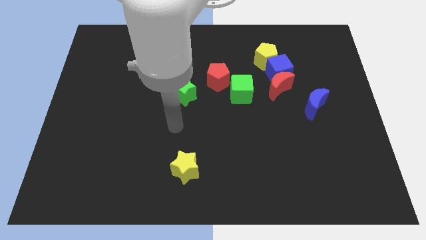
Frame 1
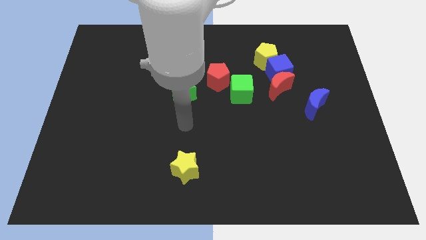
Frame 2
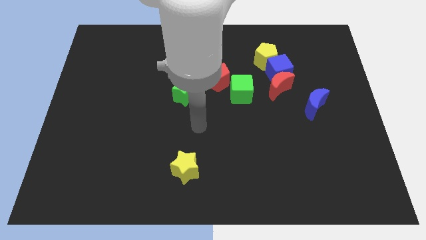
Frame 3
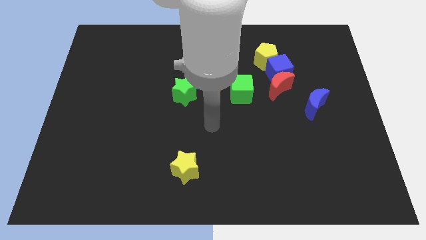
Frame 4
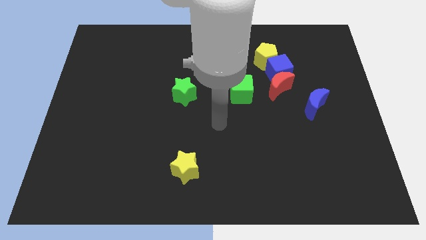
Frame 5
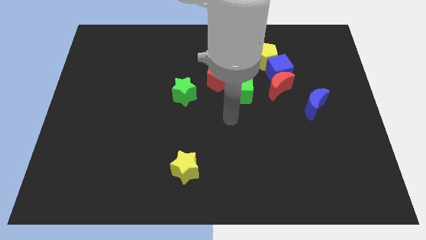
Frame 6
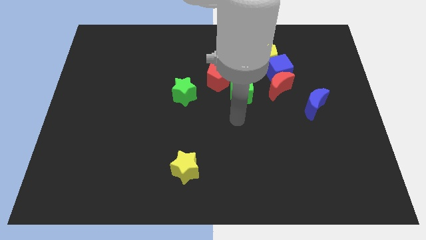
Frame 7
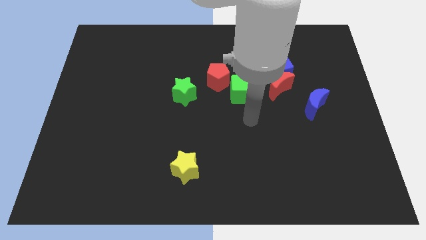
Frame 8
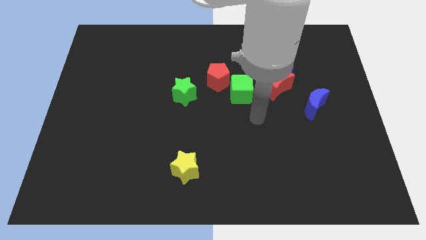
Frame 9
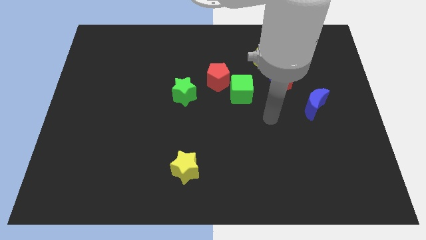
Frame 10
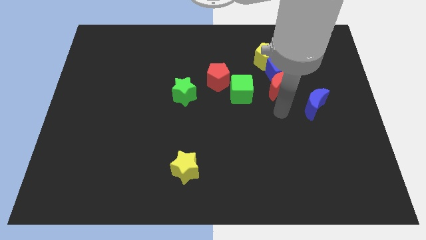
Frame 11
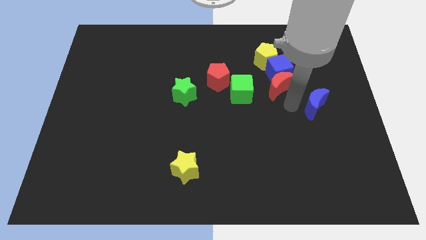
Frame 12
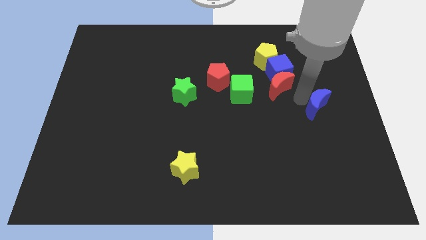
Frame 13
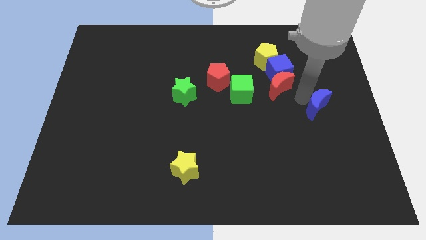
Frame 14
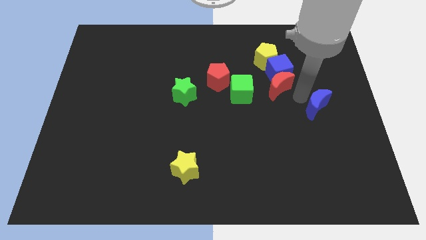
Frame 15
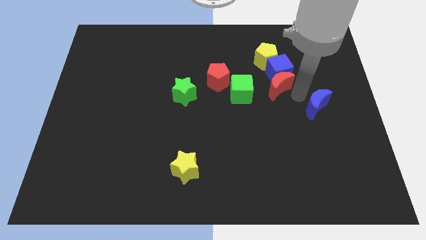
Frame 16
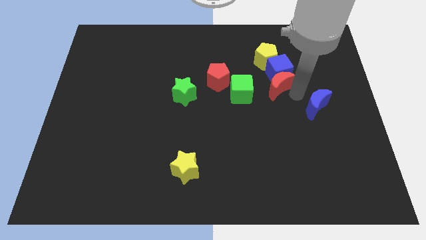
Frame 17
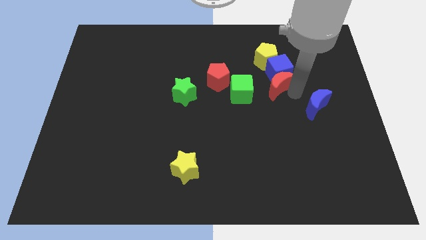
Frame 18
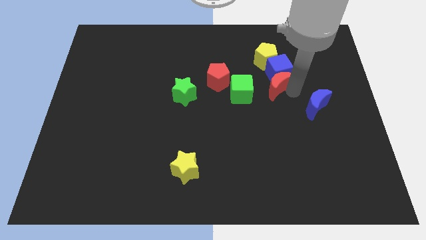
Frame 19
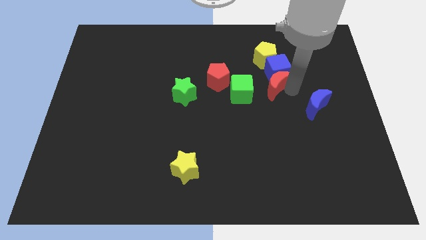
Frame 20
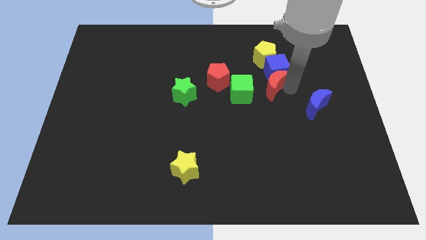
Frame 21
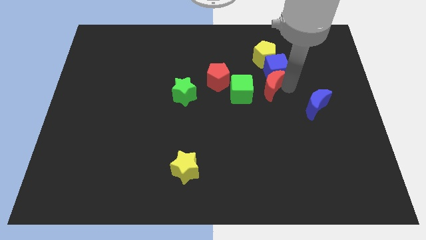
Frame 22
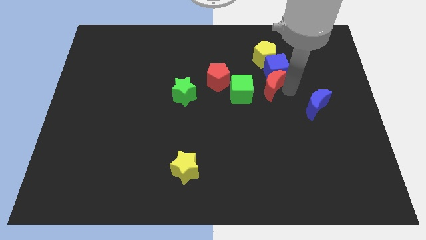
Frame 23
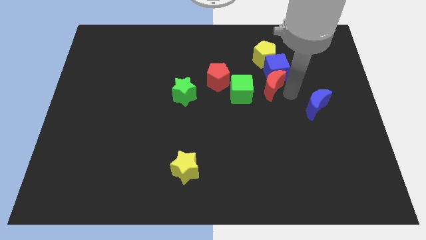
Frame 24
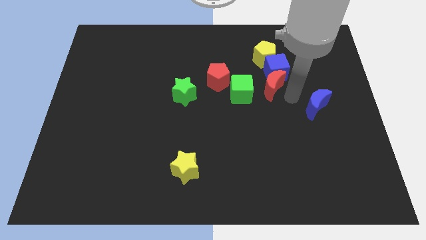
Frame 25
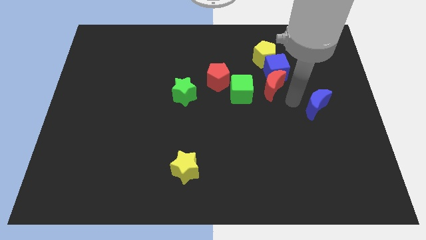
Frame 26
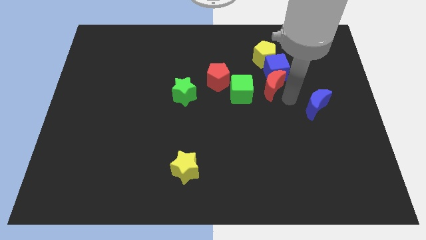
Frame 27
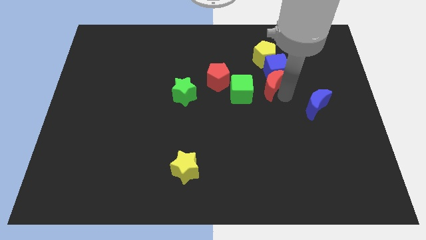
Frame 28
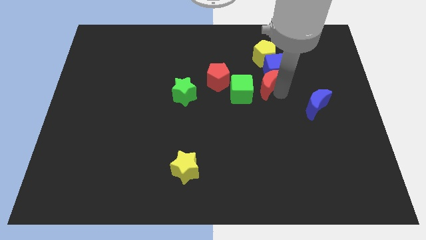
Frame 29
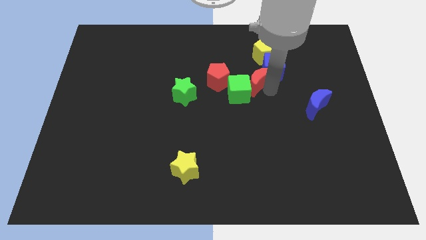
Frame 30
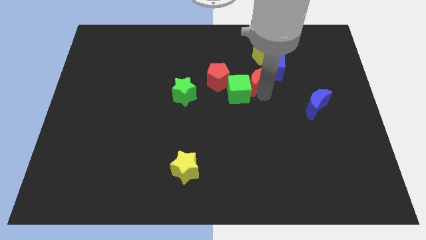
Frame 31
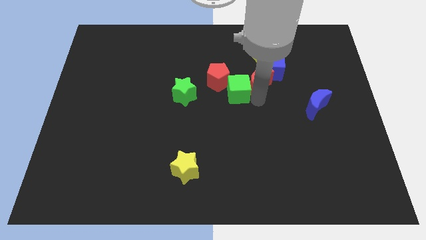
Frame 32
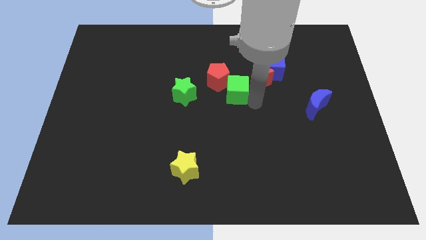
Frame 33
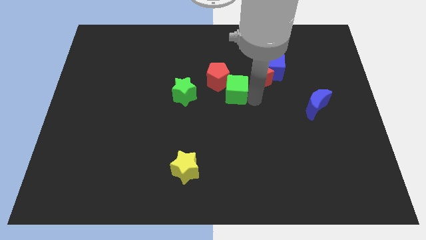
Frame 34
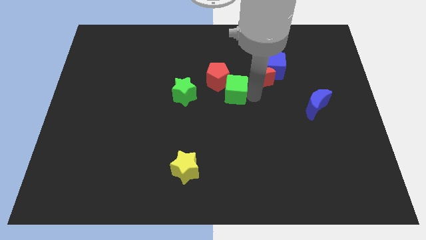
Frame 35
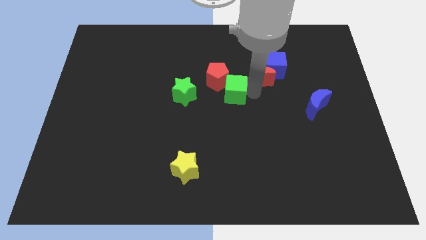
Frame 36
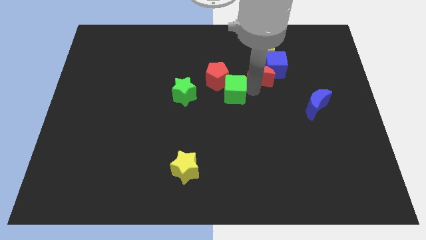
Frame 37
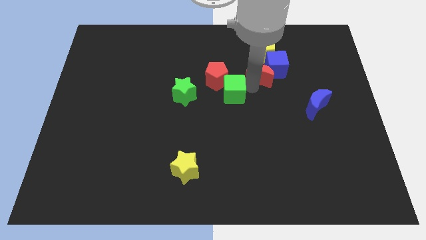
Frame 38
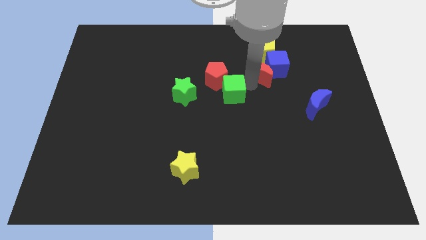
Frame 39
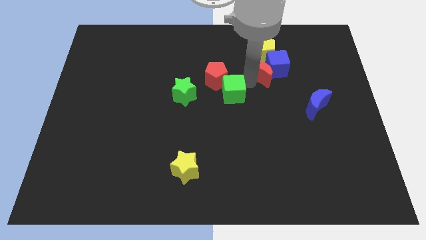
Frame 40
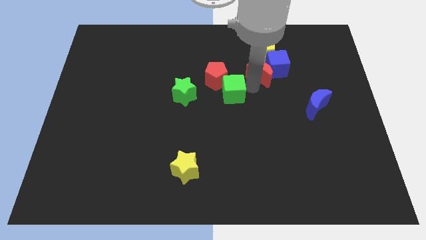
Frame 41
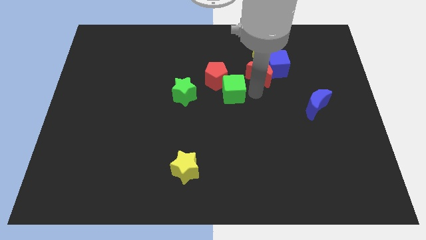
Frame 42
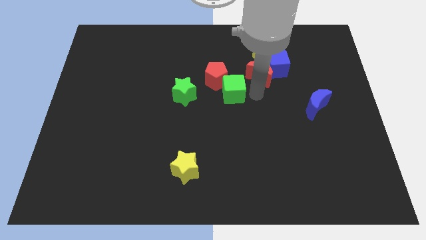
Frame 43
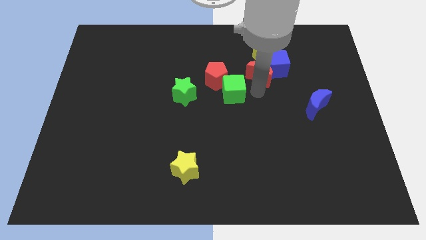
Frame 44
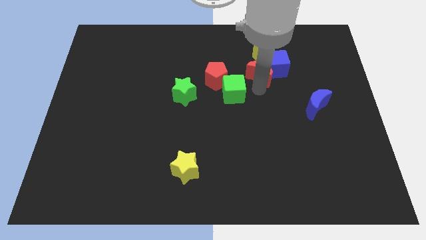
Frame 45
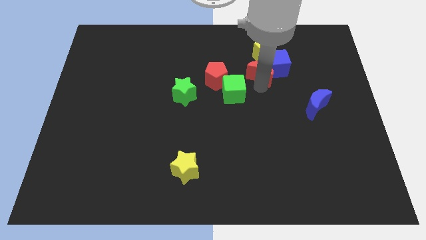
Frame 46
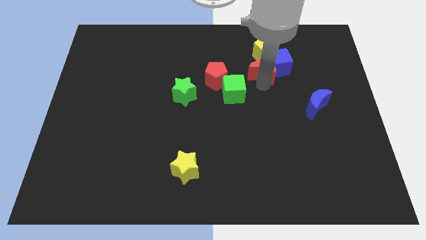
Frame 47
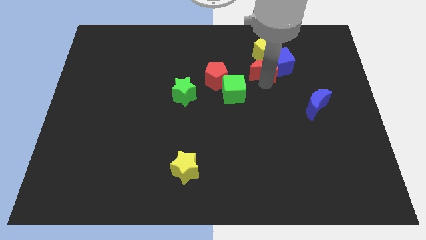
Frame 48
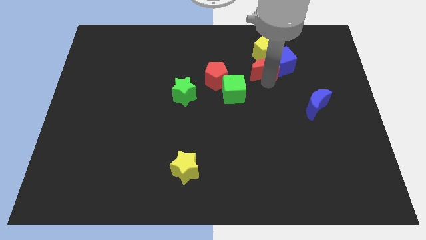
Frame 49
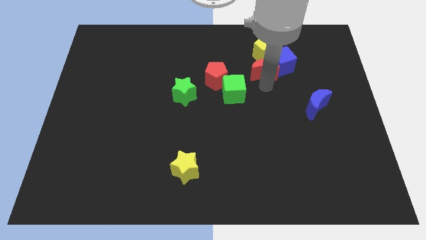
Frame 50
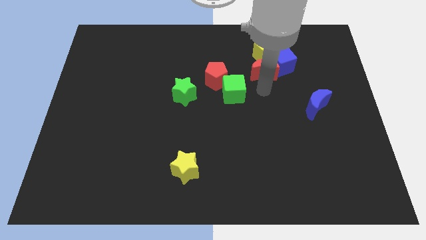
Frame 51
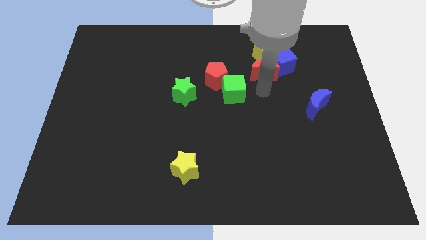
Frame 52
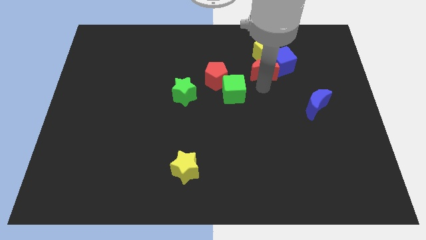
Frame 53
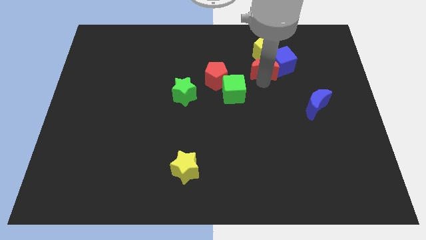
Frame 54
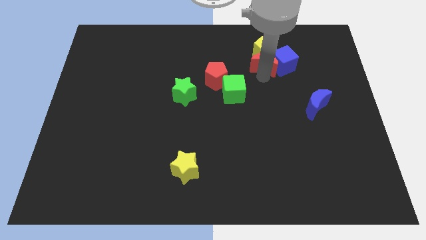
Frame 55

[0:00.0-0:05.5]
put the red moon close to the yellow pentagon

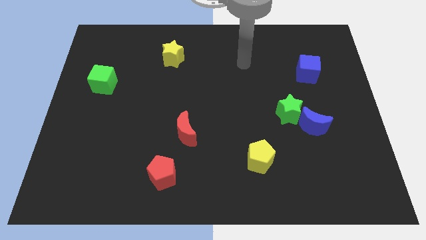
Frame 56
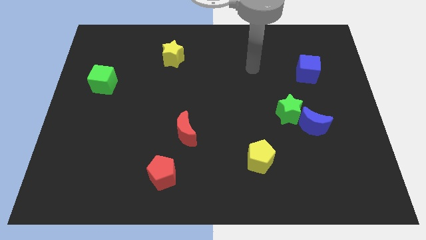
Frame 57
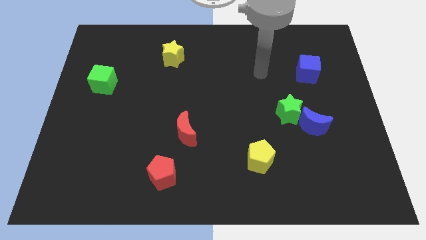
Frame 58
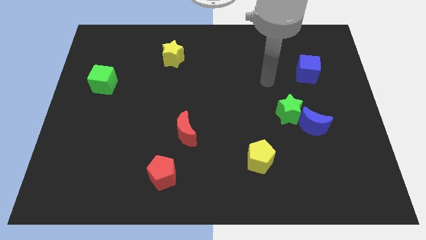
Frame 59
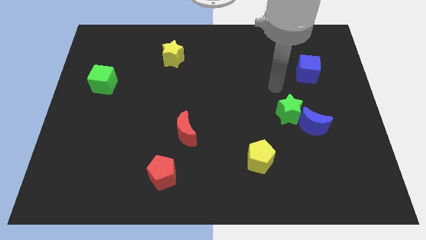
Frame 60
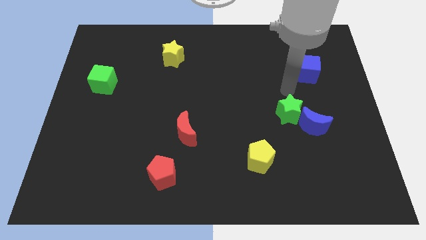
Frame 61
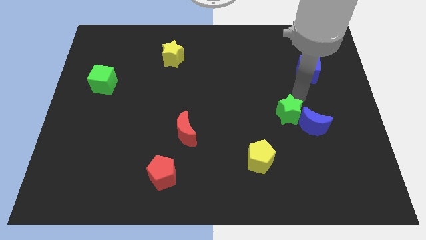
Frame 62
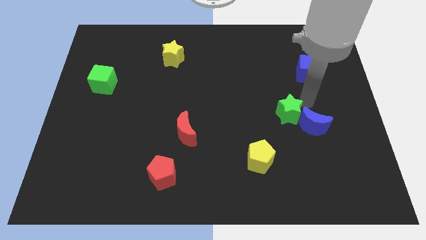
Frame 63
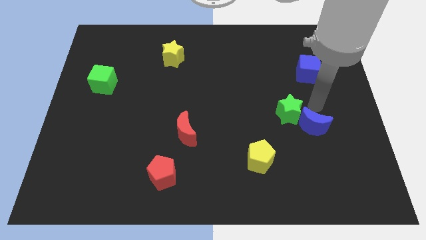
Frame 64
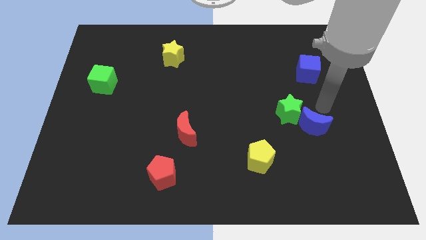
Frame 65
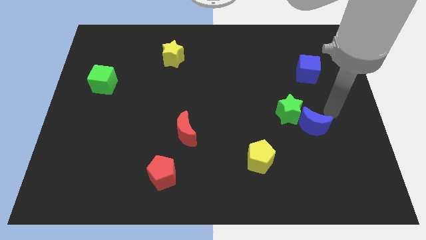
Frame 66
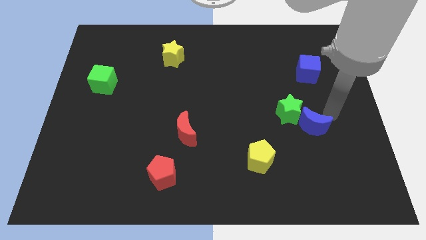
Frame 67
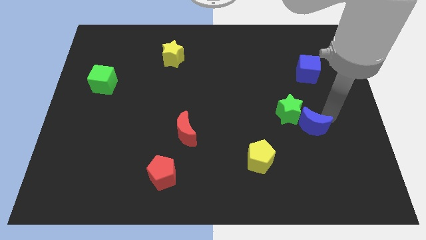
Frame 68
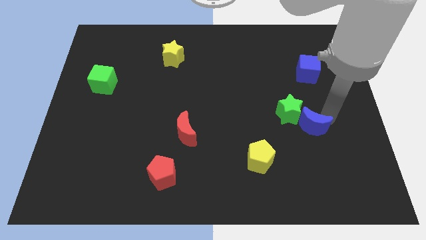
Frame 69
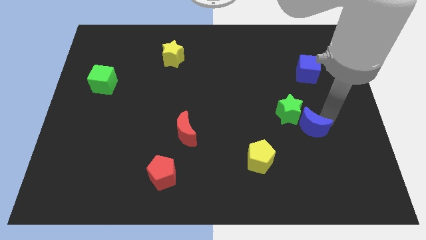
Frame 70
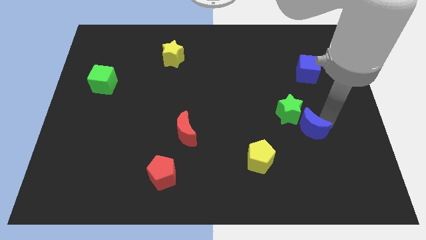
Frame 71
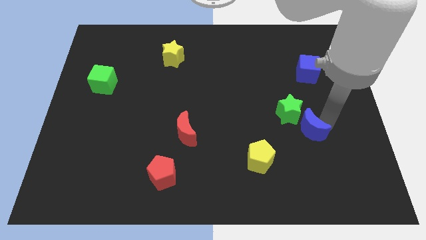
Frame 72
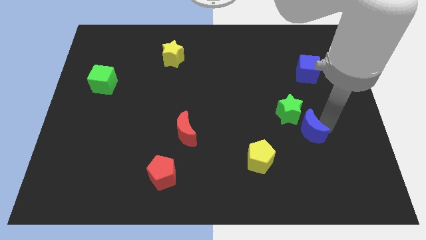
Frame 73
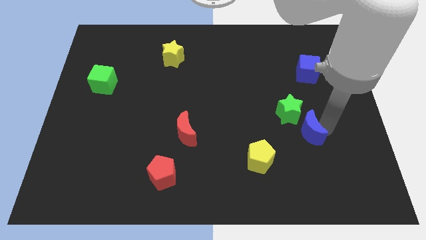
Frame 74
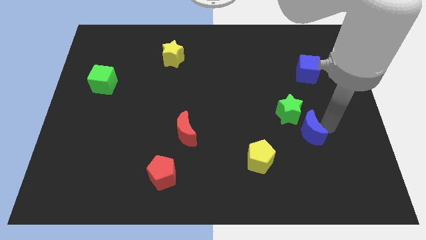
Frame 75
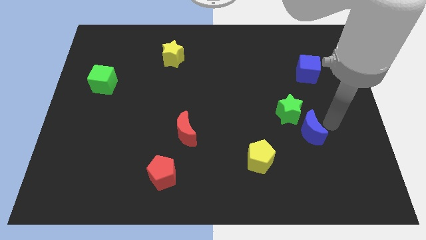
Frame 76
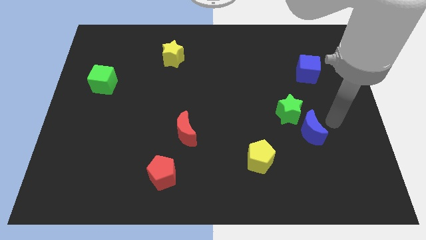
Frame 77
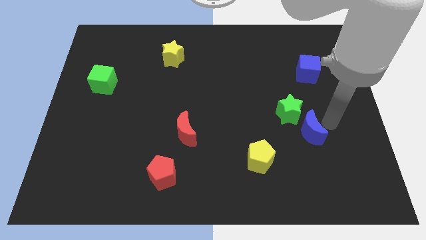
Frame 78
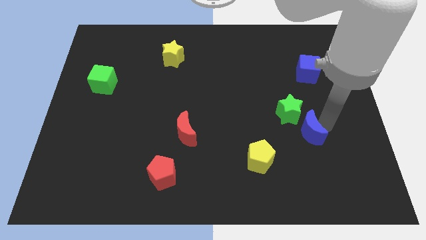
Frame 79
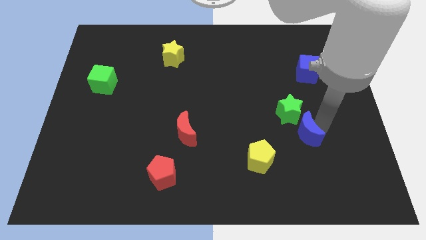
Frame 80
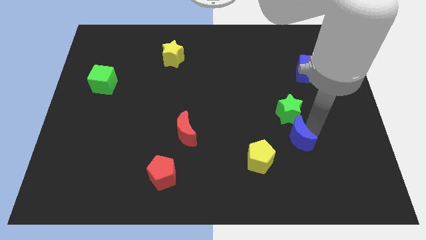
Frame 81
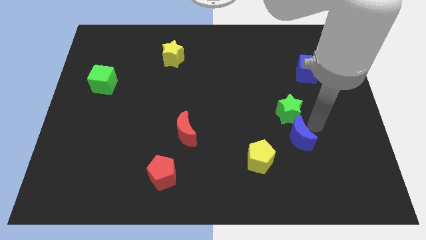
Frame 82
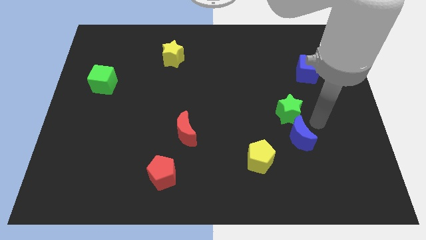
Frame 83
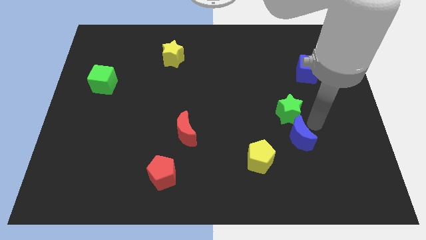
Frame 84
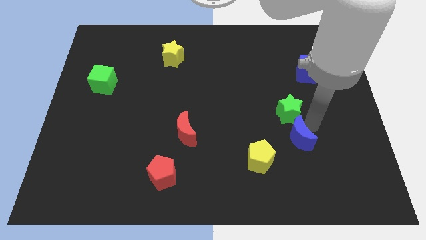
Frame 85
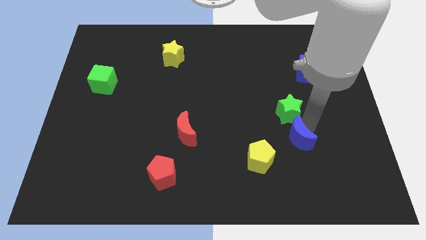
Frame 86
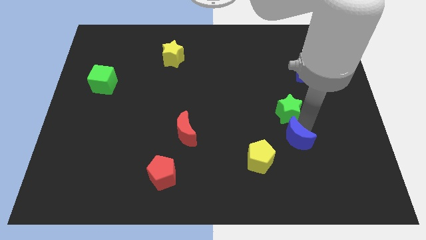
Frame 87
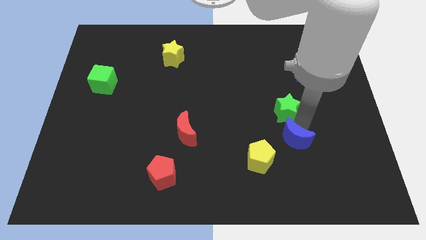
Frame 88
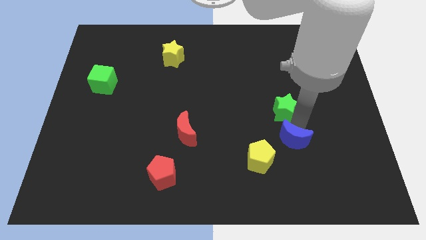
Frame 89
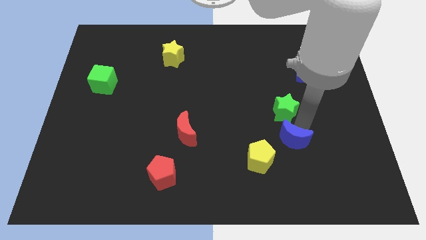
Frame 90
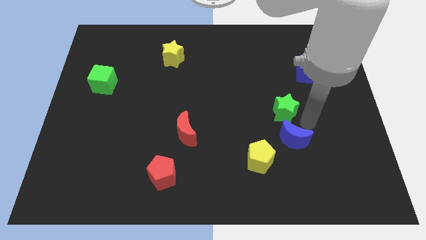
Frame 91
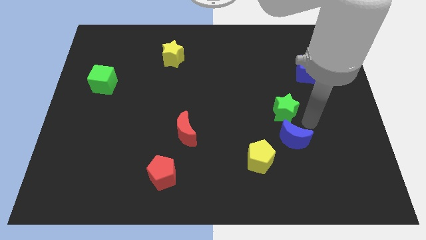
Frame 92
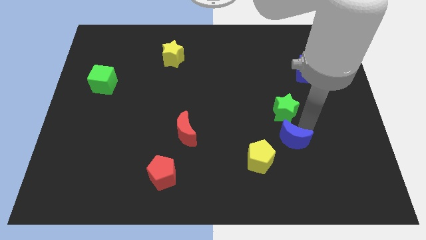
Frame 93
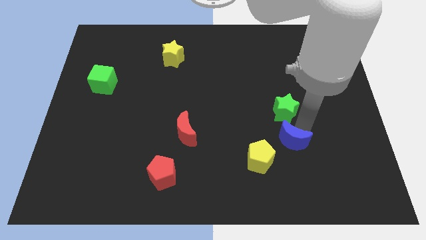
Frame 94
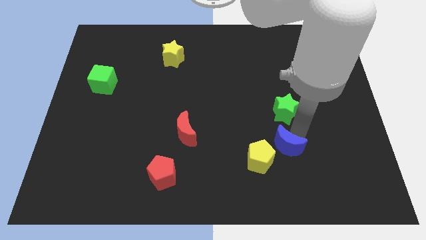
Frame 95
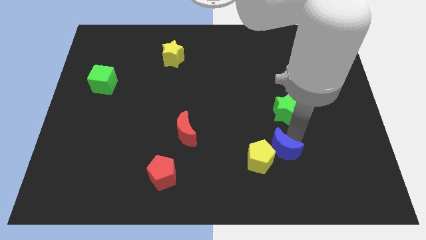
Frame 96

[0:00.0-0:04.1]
push the blue moon close to the yellow pentagon
